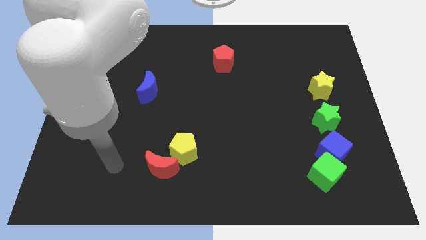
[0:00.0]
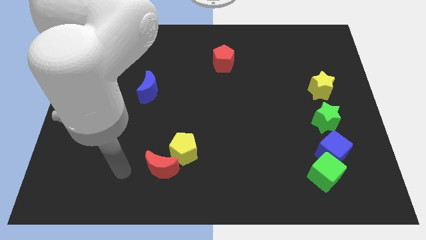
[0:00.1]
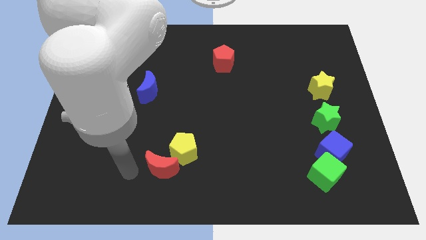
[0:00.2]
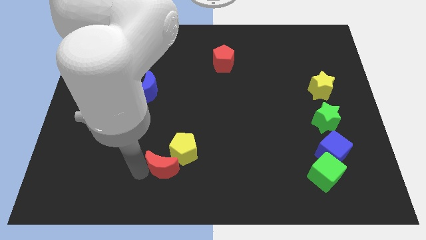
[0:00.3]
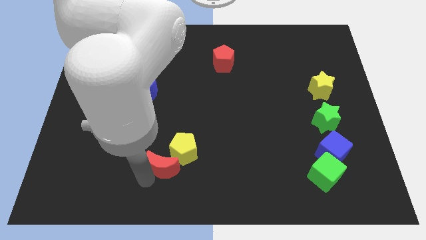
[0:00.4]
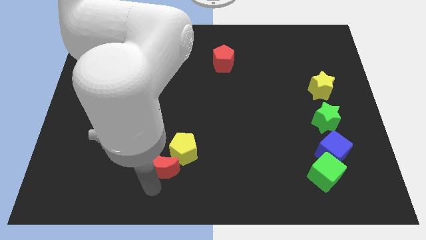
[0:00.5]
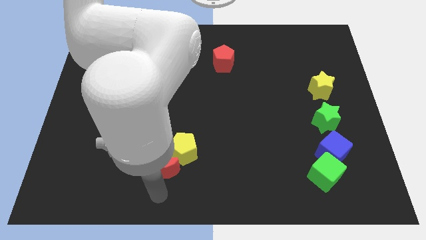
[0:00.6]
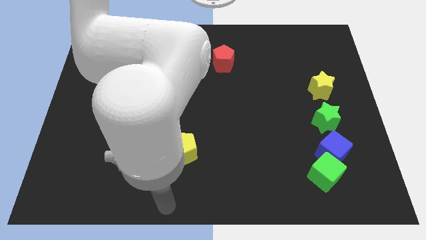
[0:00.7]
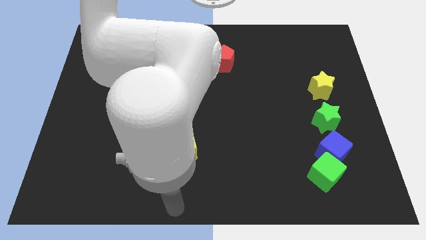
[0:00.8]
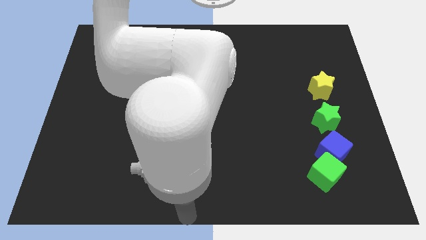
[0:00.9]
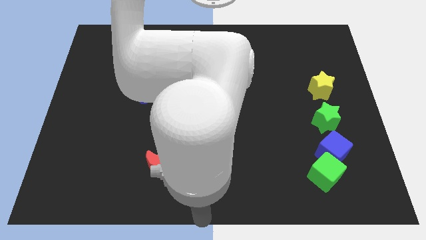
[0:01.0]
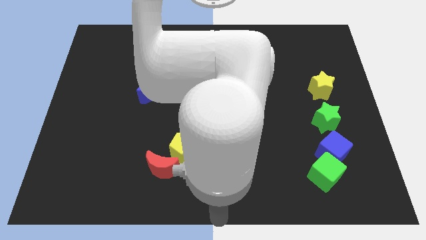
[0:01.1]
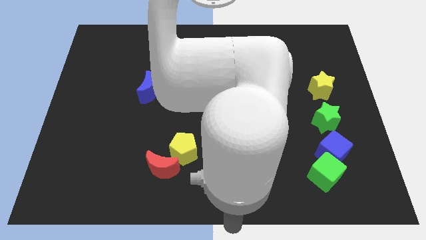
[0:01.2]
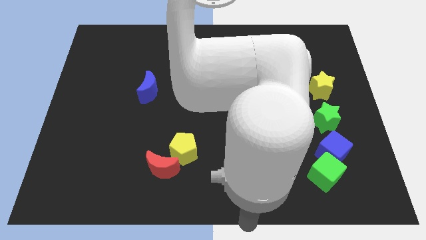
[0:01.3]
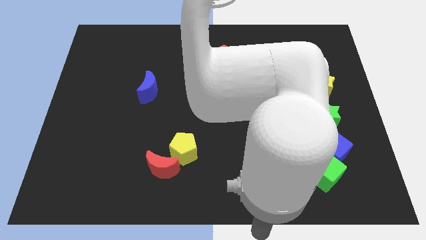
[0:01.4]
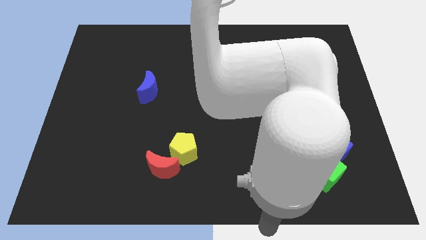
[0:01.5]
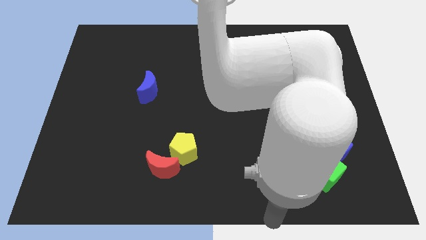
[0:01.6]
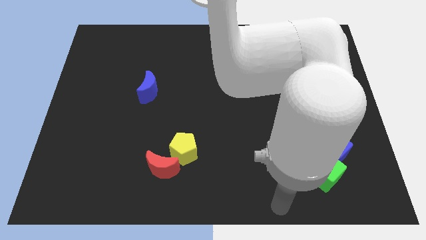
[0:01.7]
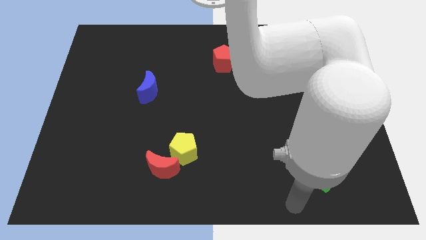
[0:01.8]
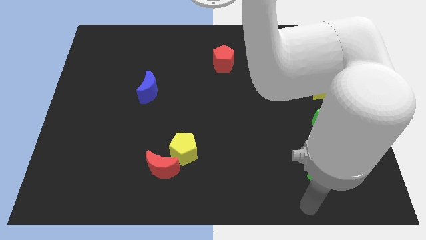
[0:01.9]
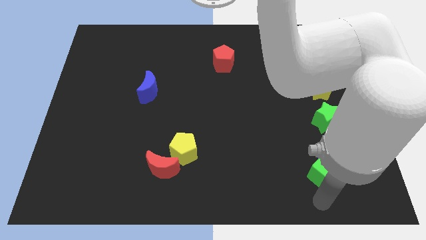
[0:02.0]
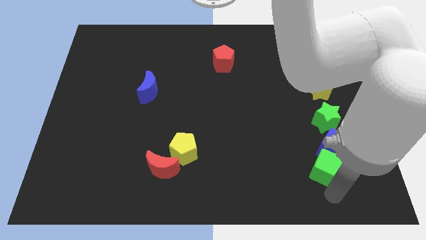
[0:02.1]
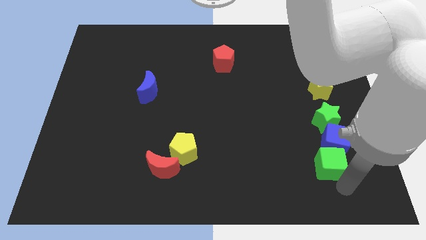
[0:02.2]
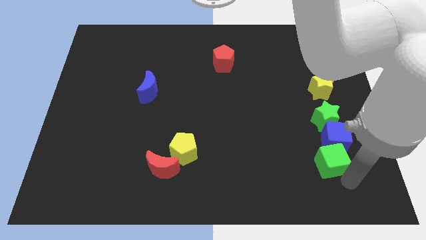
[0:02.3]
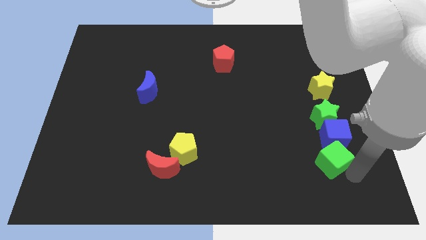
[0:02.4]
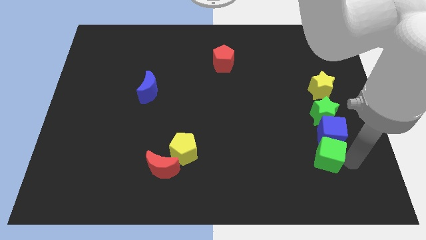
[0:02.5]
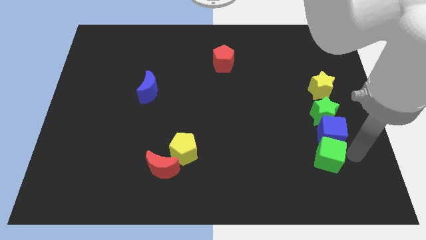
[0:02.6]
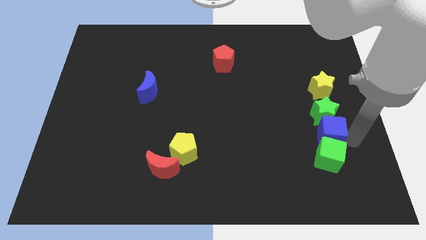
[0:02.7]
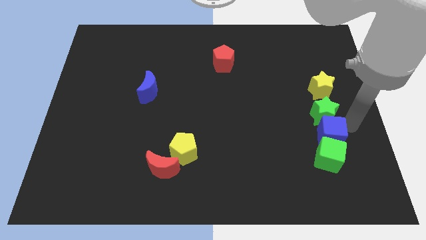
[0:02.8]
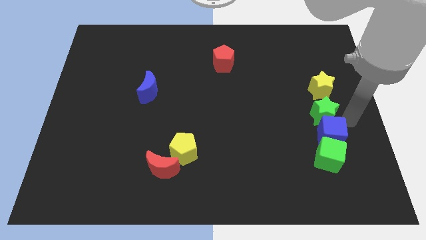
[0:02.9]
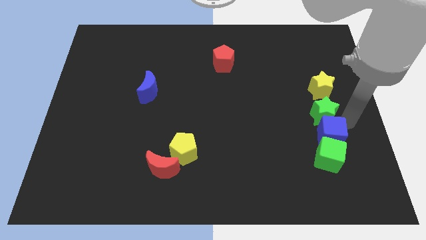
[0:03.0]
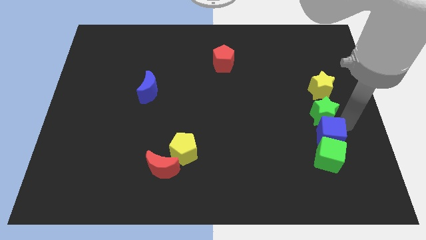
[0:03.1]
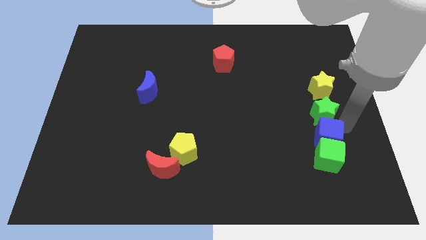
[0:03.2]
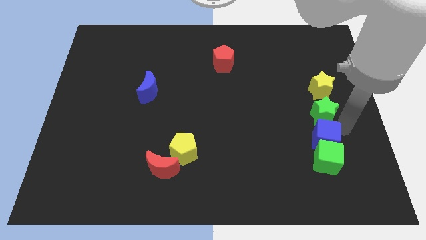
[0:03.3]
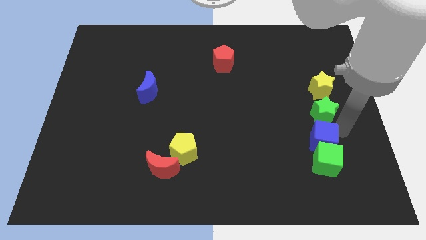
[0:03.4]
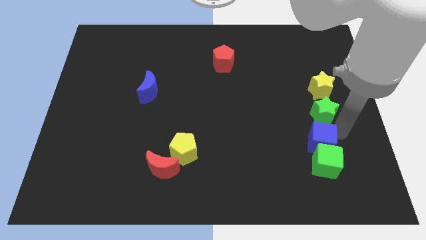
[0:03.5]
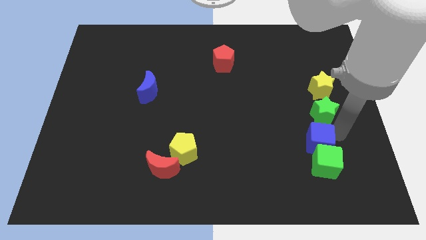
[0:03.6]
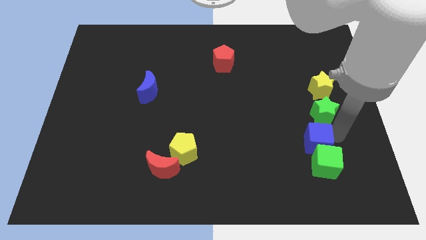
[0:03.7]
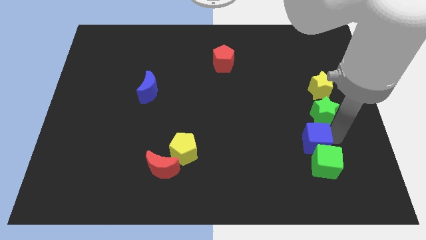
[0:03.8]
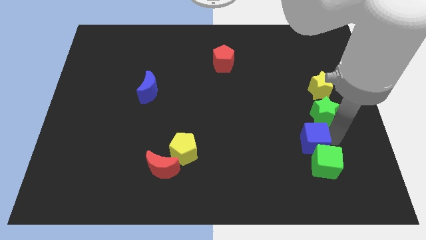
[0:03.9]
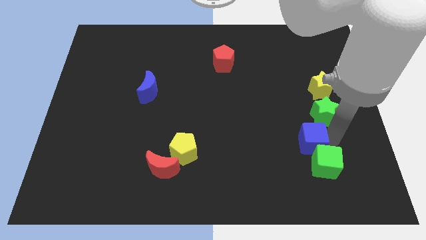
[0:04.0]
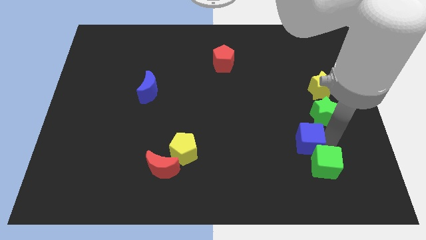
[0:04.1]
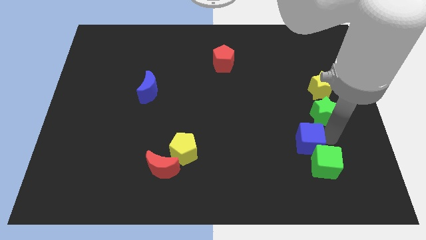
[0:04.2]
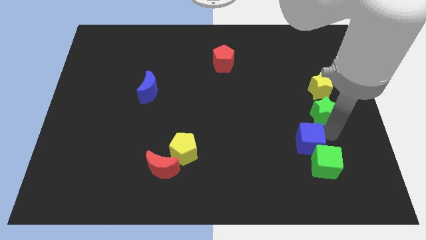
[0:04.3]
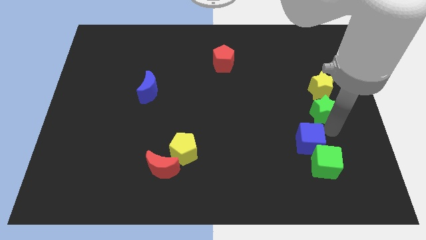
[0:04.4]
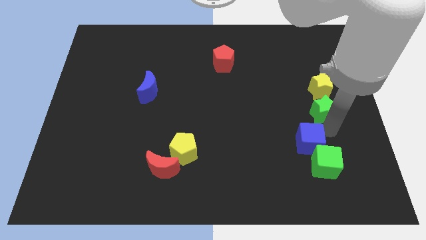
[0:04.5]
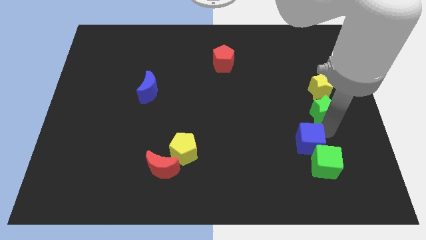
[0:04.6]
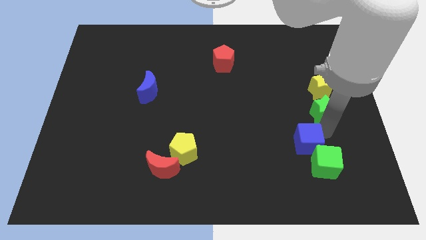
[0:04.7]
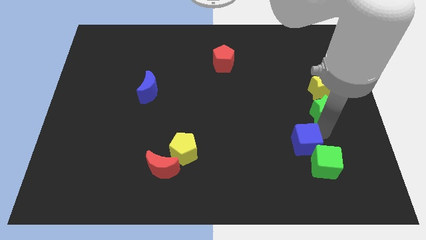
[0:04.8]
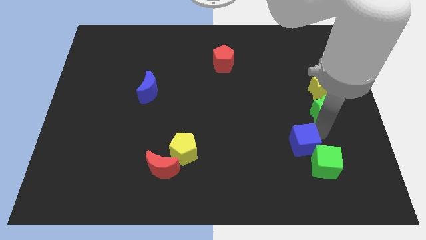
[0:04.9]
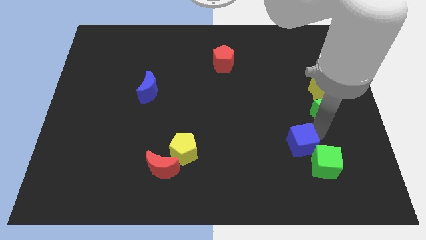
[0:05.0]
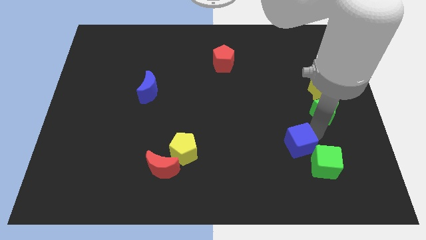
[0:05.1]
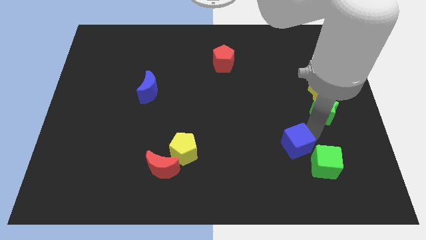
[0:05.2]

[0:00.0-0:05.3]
slide the blue cube slightly to the left

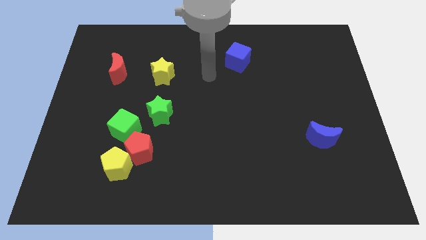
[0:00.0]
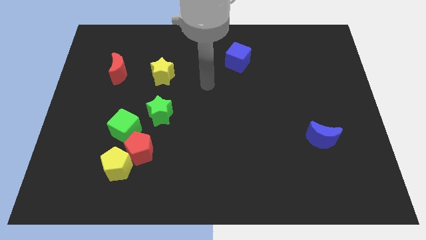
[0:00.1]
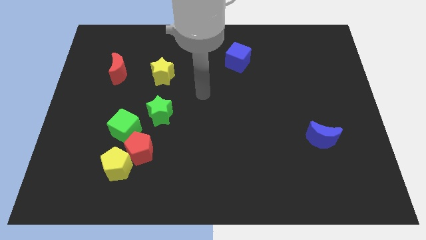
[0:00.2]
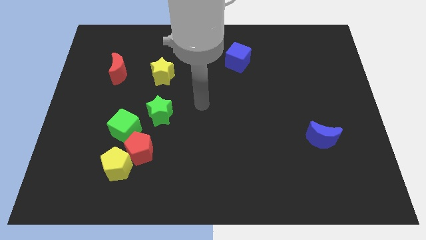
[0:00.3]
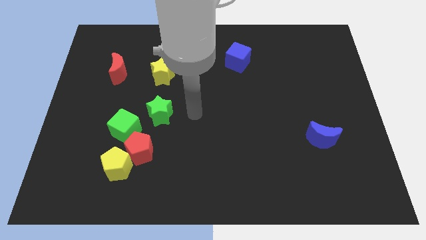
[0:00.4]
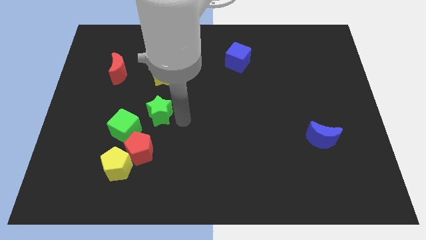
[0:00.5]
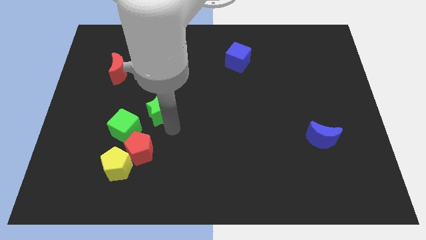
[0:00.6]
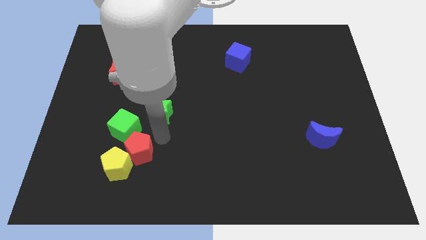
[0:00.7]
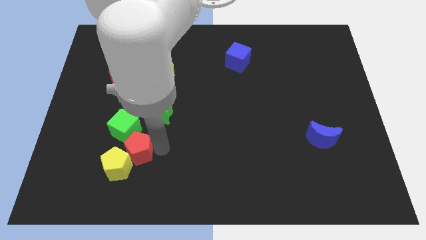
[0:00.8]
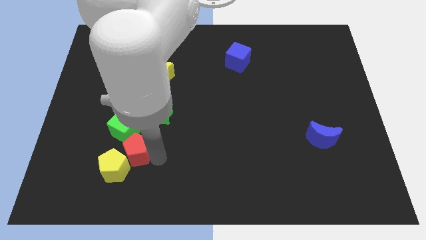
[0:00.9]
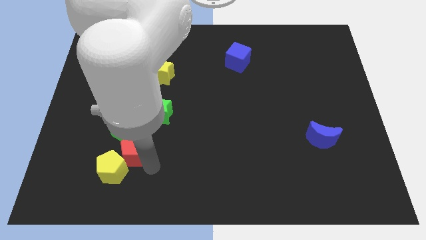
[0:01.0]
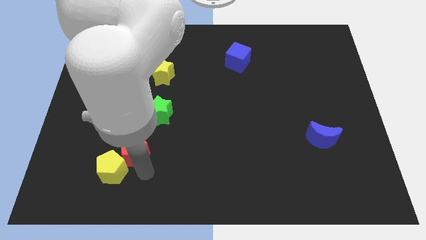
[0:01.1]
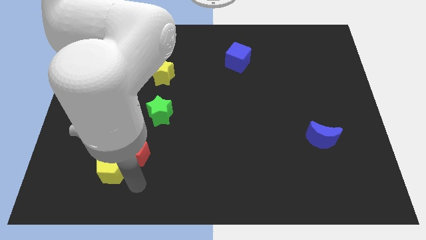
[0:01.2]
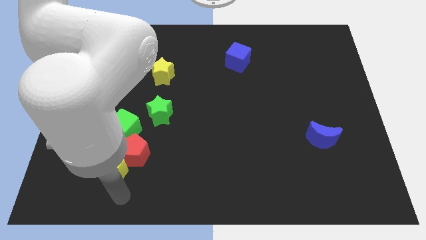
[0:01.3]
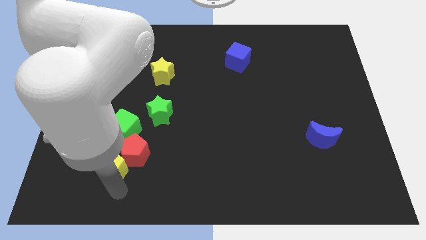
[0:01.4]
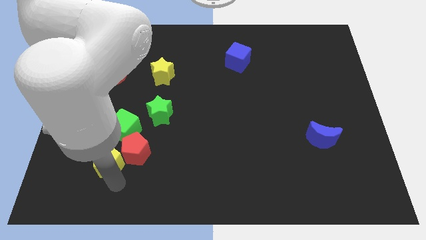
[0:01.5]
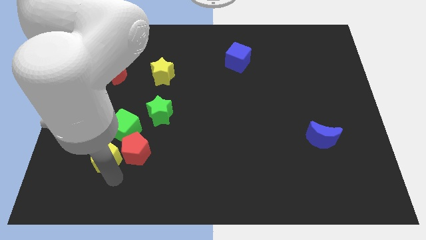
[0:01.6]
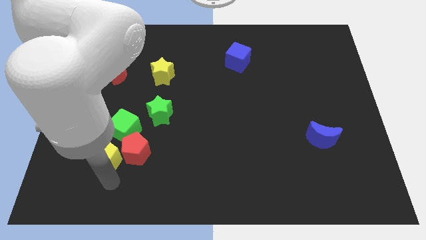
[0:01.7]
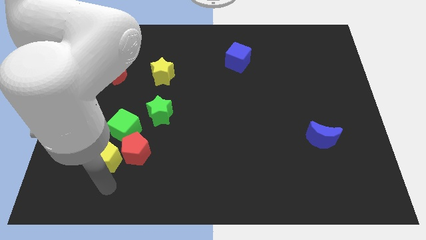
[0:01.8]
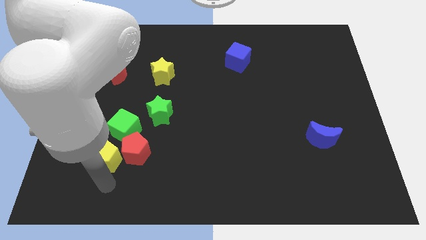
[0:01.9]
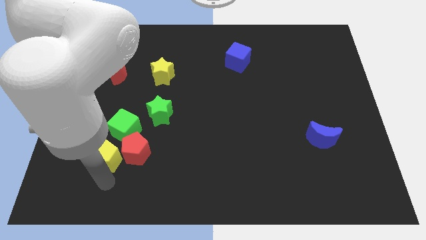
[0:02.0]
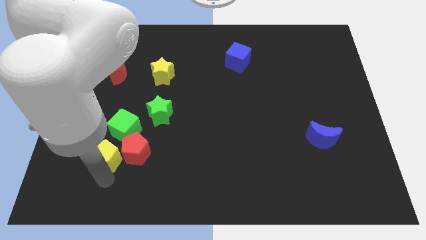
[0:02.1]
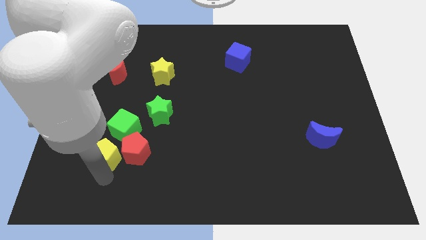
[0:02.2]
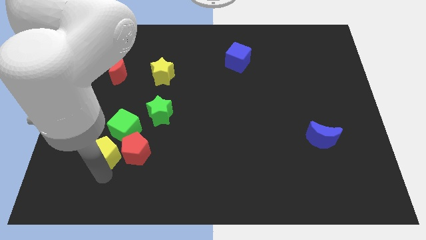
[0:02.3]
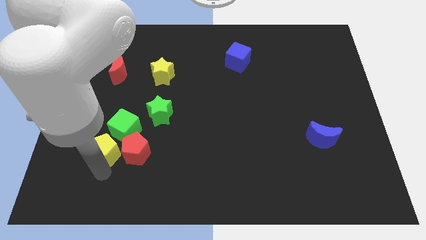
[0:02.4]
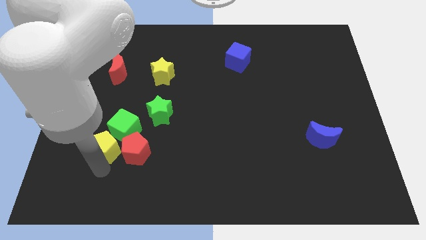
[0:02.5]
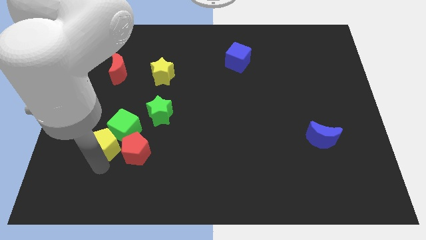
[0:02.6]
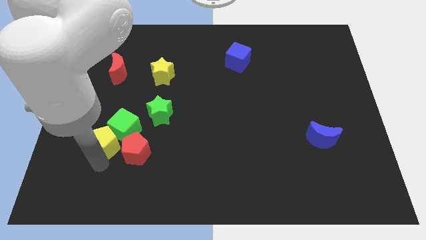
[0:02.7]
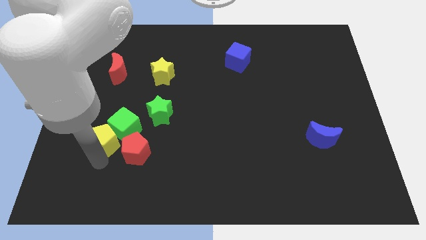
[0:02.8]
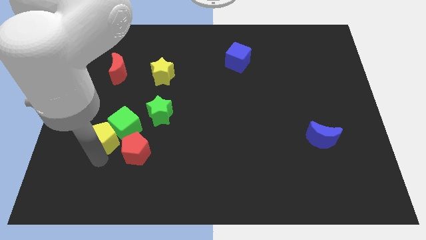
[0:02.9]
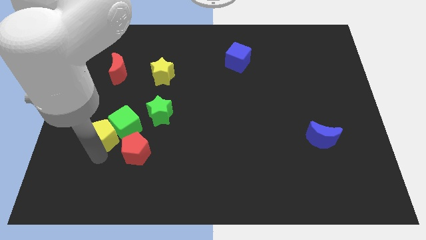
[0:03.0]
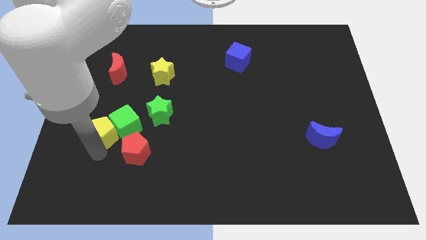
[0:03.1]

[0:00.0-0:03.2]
slide the yellow pentagon slightly up

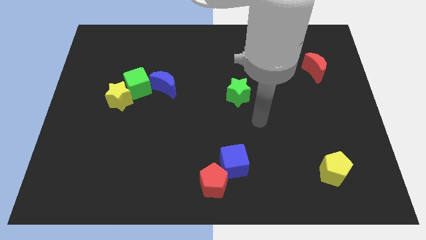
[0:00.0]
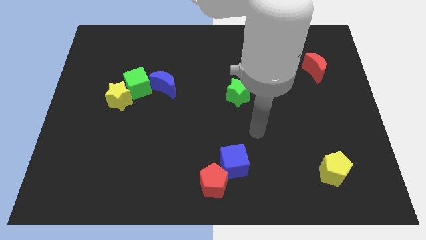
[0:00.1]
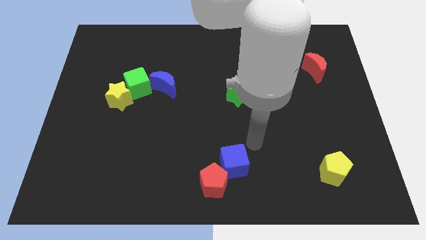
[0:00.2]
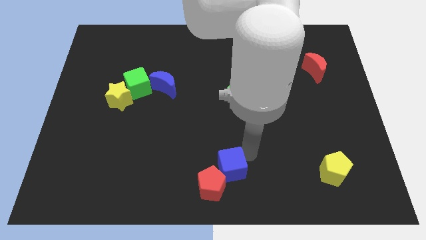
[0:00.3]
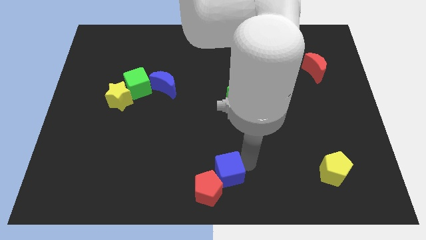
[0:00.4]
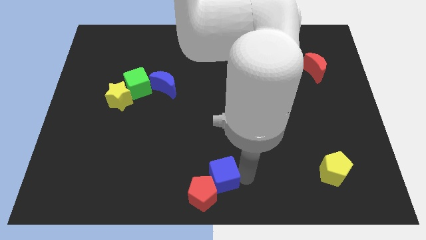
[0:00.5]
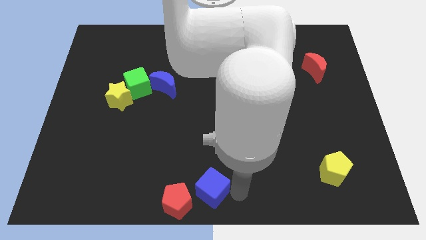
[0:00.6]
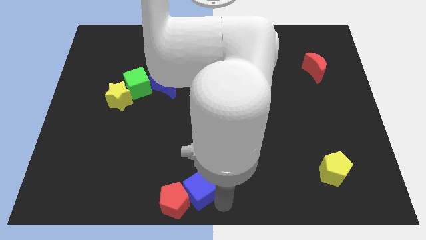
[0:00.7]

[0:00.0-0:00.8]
push the red pentagon left slightly
